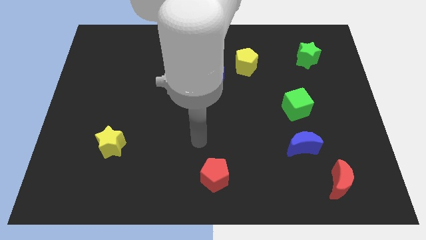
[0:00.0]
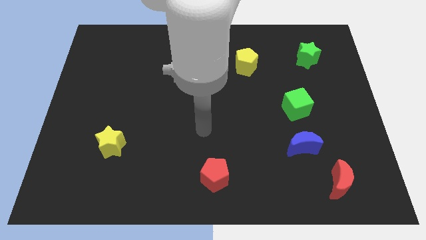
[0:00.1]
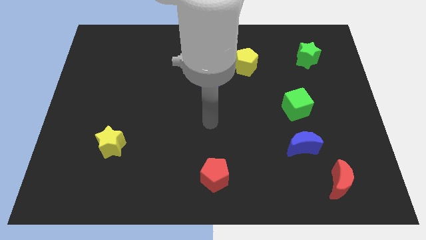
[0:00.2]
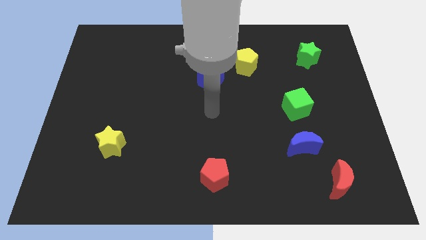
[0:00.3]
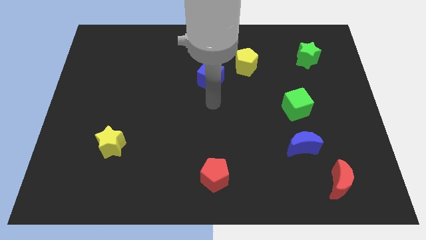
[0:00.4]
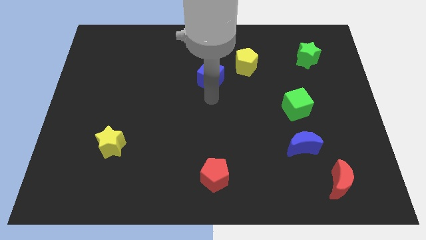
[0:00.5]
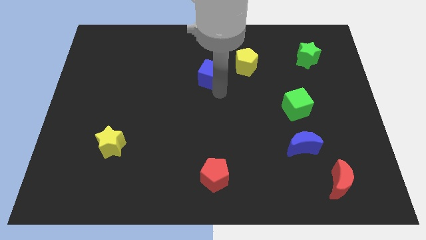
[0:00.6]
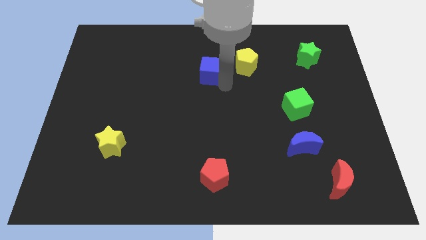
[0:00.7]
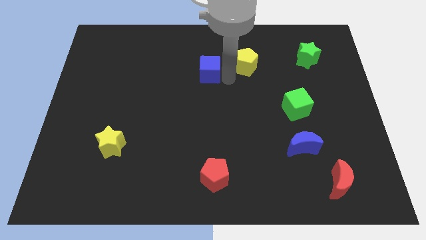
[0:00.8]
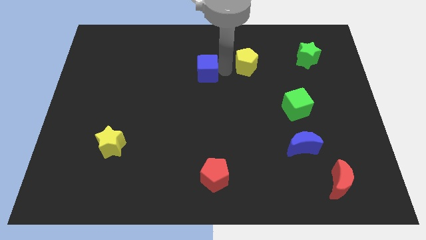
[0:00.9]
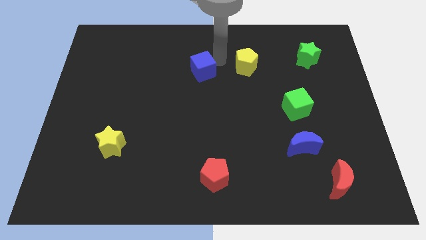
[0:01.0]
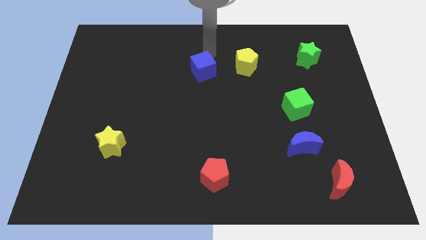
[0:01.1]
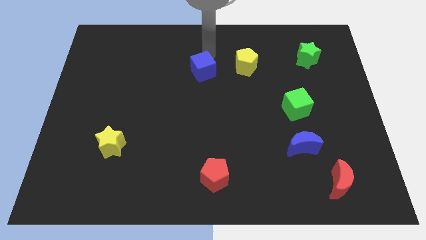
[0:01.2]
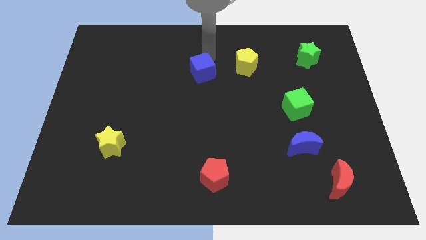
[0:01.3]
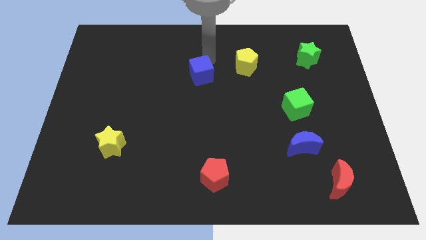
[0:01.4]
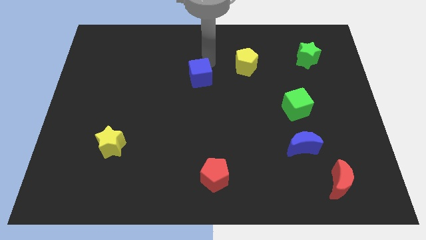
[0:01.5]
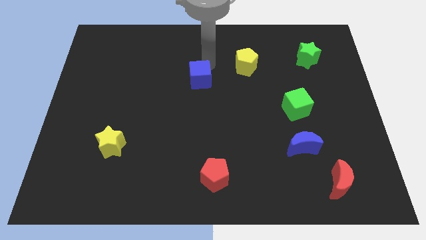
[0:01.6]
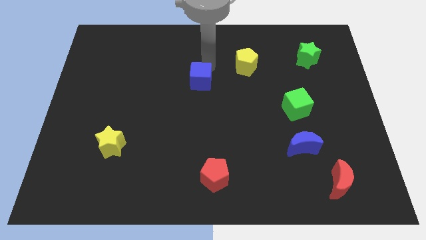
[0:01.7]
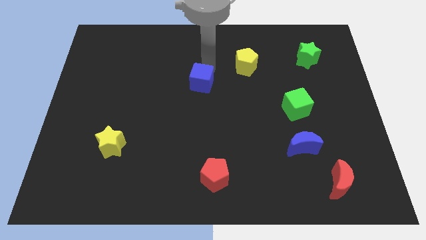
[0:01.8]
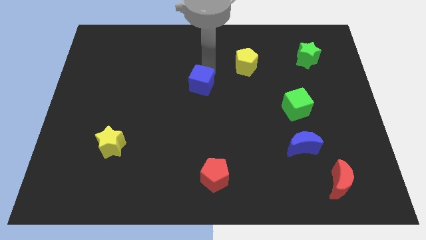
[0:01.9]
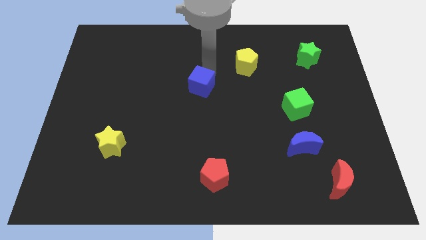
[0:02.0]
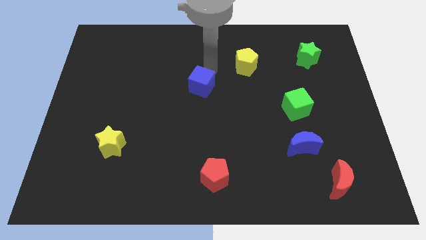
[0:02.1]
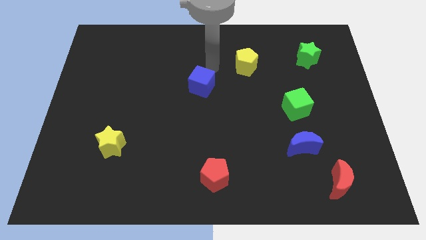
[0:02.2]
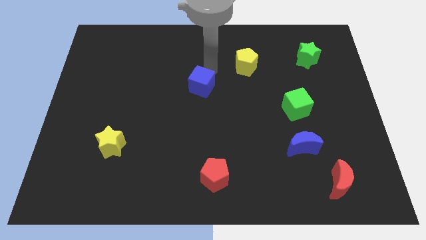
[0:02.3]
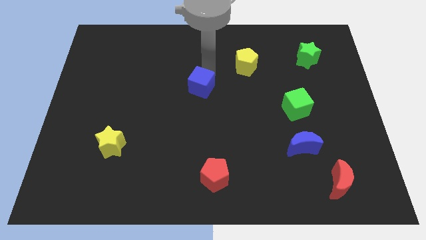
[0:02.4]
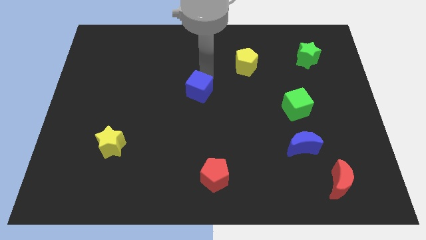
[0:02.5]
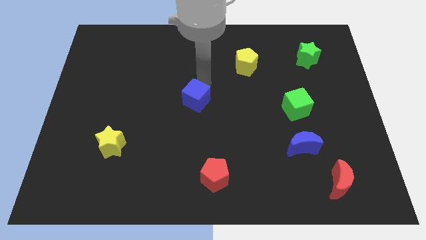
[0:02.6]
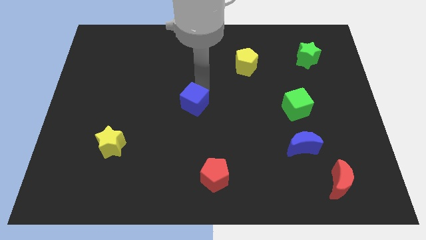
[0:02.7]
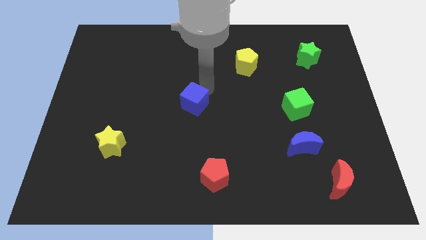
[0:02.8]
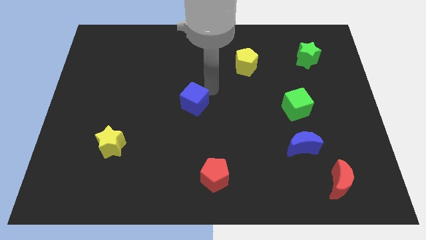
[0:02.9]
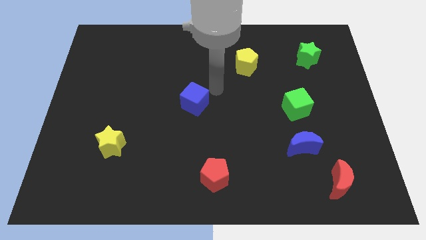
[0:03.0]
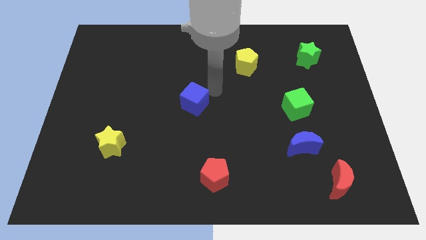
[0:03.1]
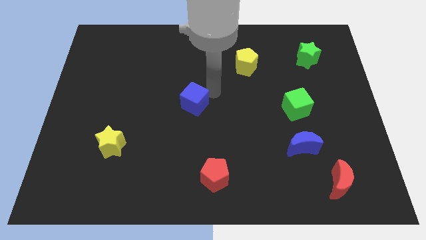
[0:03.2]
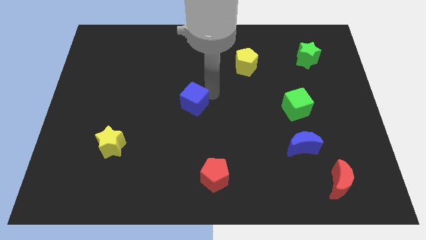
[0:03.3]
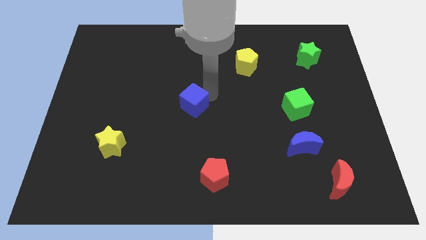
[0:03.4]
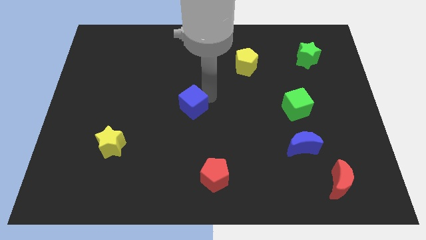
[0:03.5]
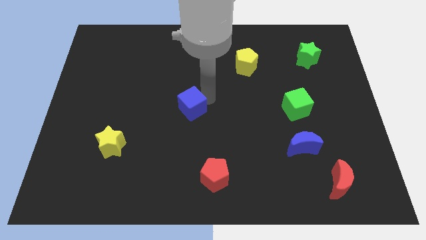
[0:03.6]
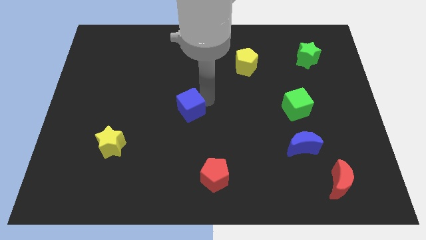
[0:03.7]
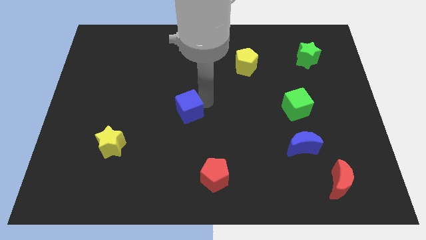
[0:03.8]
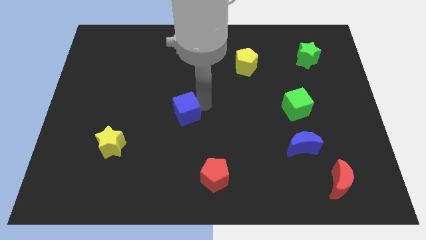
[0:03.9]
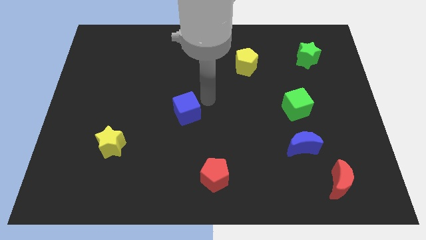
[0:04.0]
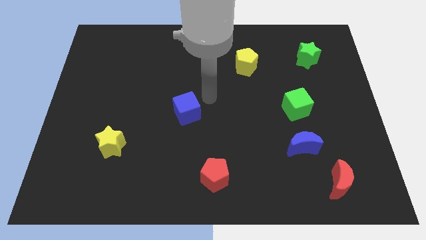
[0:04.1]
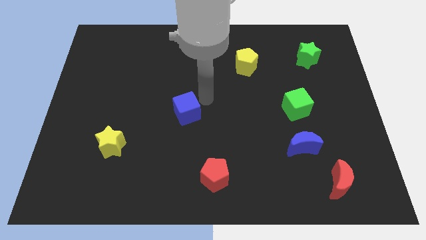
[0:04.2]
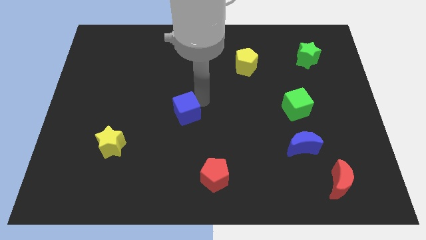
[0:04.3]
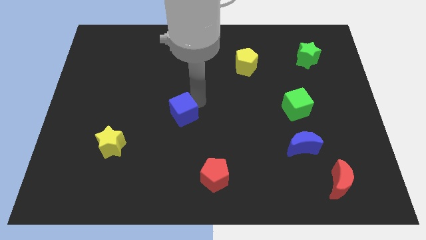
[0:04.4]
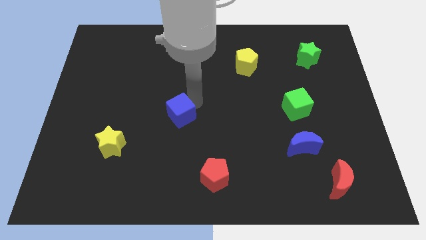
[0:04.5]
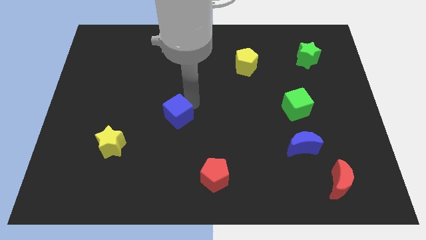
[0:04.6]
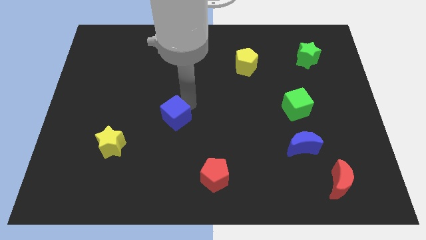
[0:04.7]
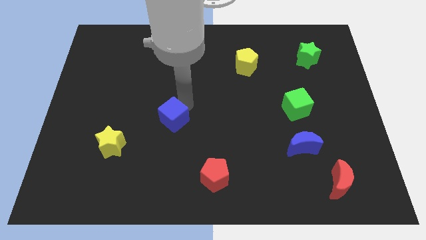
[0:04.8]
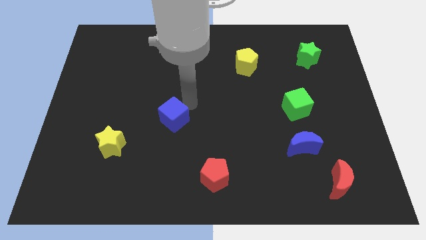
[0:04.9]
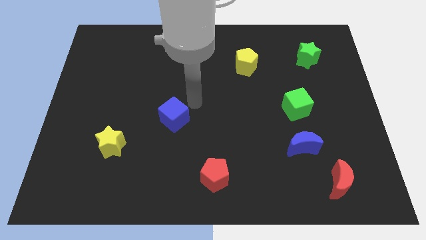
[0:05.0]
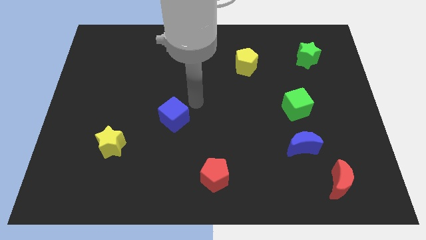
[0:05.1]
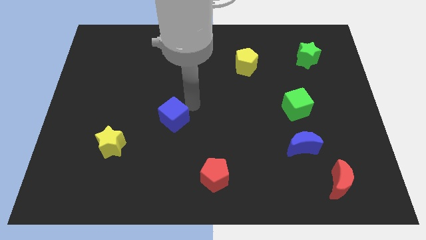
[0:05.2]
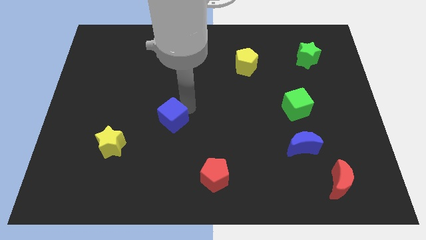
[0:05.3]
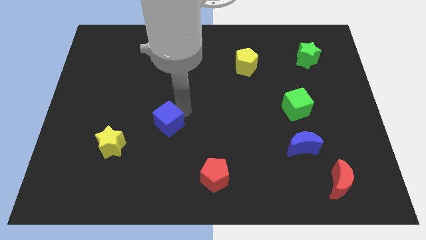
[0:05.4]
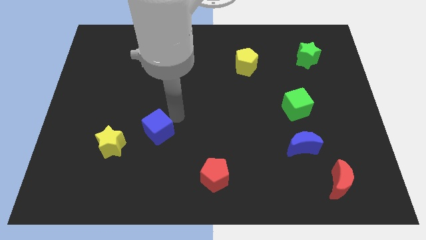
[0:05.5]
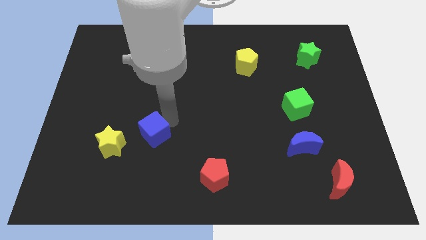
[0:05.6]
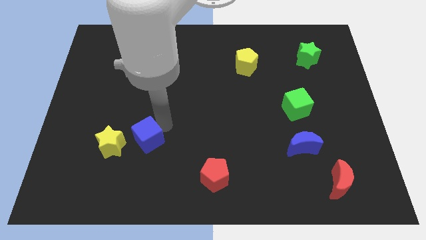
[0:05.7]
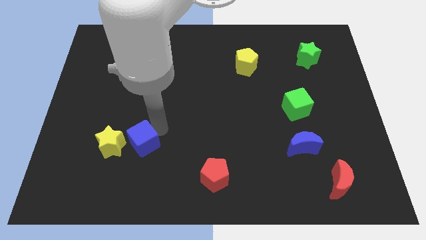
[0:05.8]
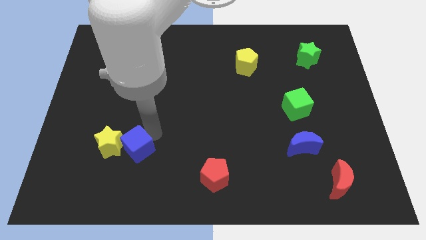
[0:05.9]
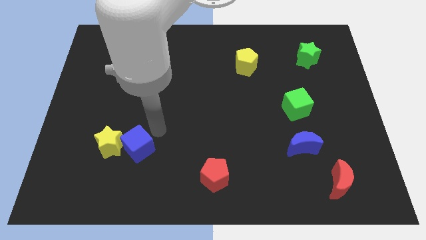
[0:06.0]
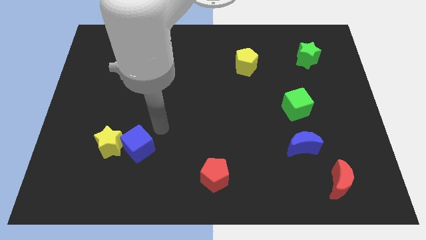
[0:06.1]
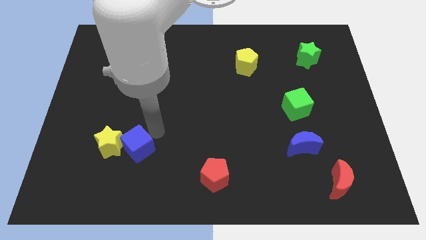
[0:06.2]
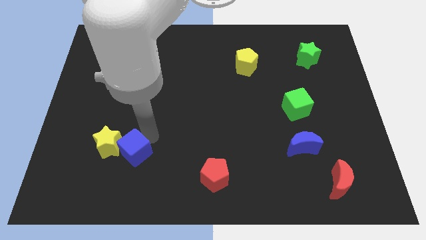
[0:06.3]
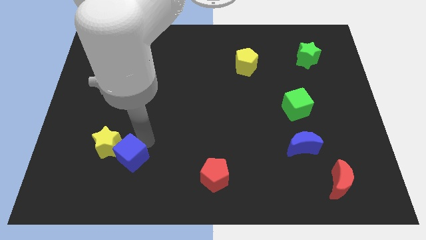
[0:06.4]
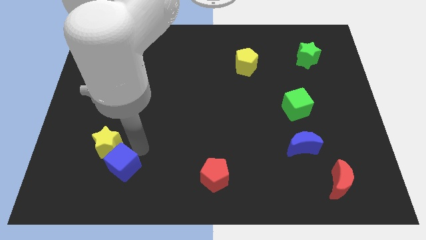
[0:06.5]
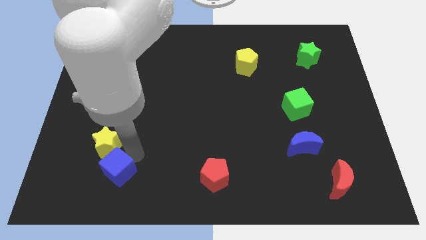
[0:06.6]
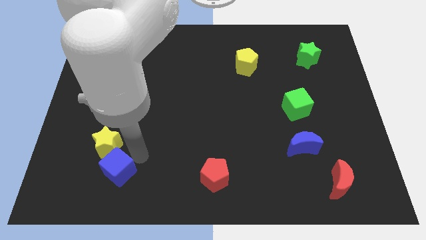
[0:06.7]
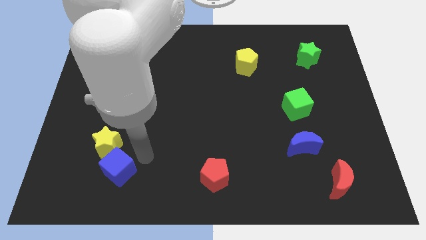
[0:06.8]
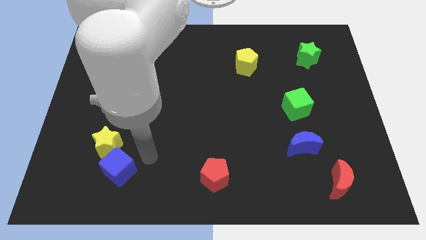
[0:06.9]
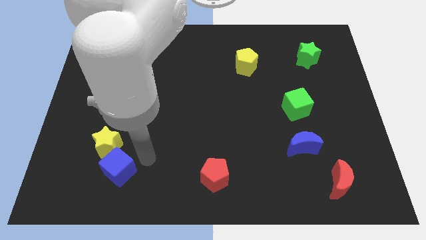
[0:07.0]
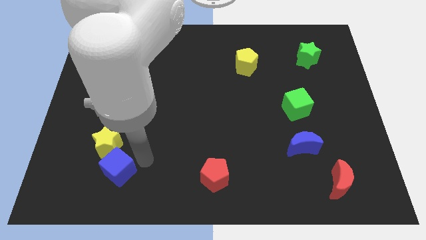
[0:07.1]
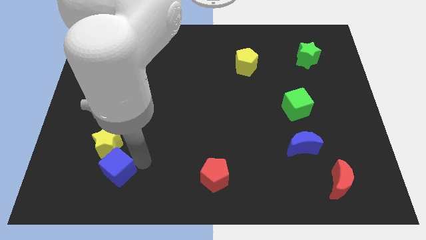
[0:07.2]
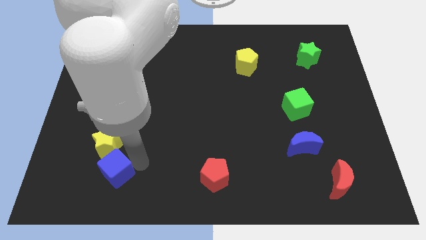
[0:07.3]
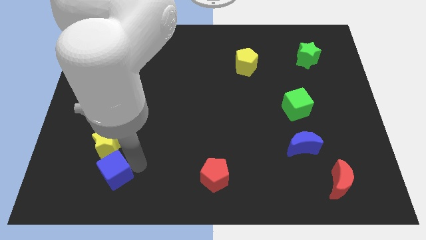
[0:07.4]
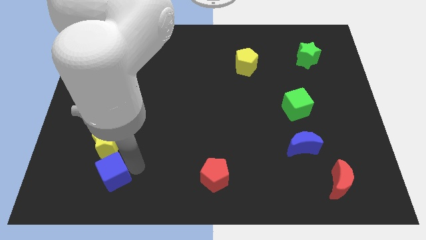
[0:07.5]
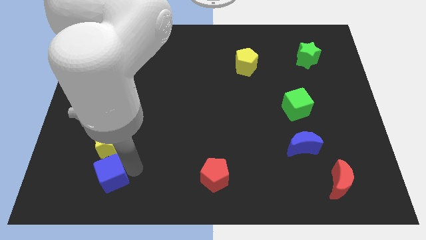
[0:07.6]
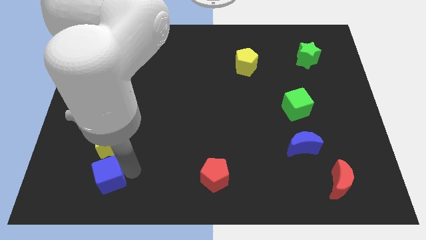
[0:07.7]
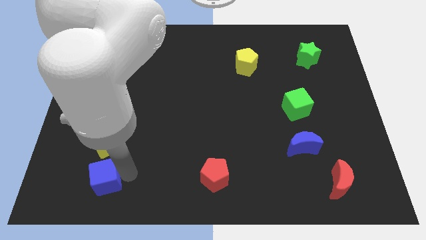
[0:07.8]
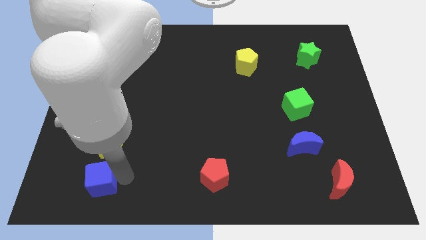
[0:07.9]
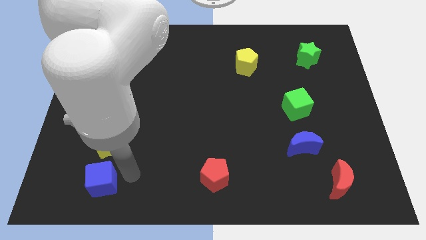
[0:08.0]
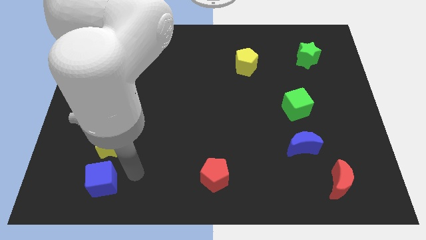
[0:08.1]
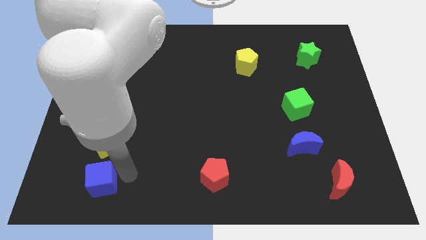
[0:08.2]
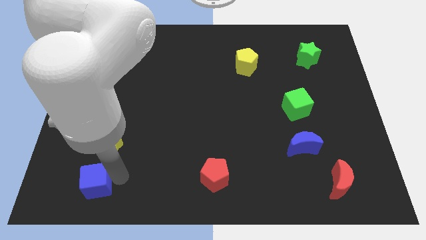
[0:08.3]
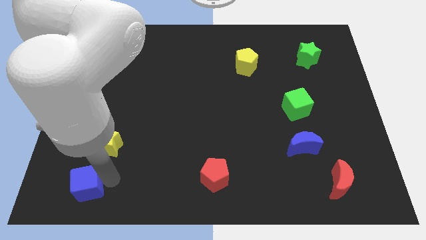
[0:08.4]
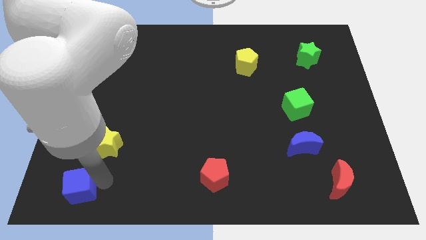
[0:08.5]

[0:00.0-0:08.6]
move the blue cube to the bottom left corner
